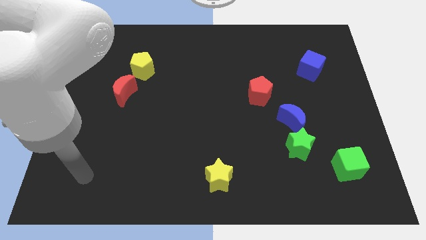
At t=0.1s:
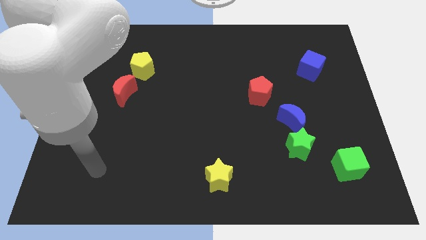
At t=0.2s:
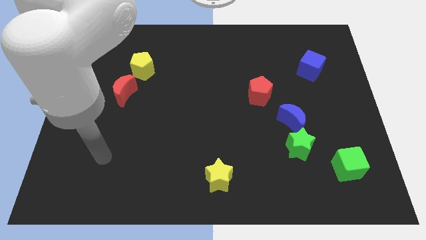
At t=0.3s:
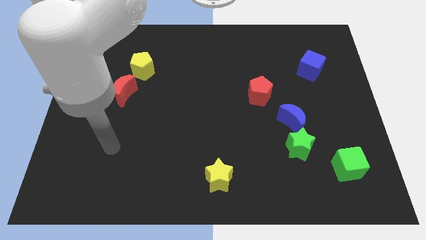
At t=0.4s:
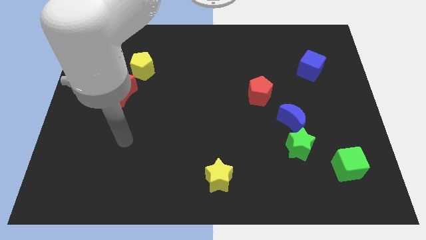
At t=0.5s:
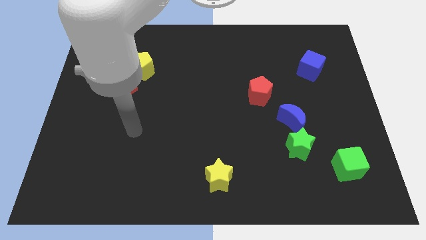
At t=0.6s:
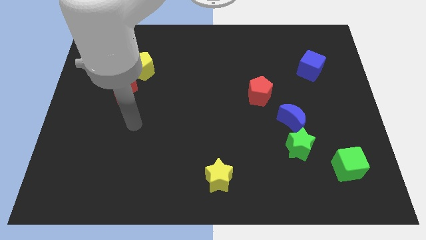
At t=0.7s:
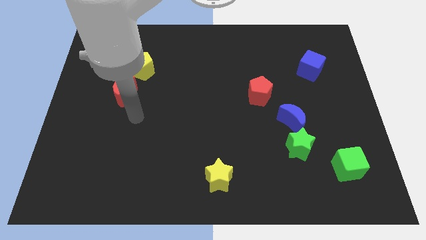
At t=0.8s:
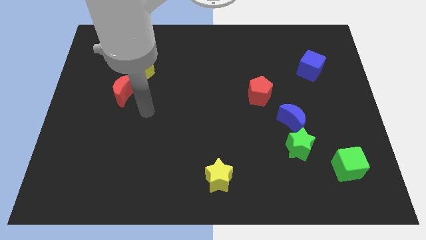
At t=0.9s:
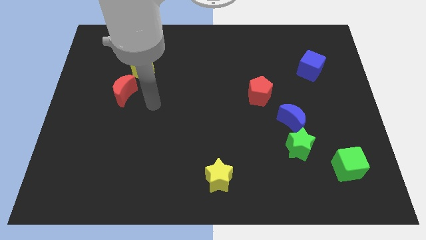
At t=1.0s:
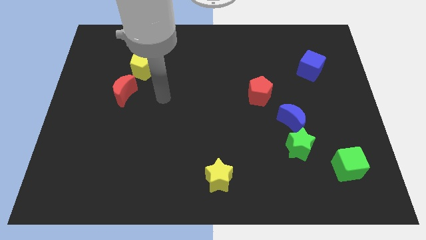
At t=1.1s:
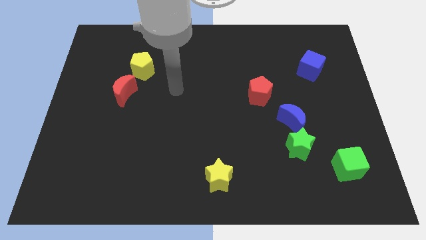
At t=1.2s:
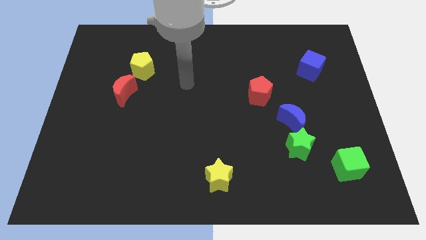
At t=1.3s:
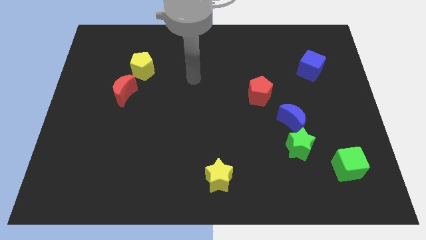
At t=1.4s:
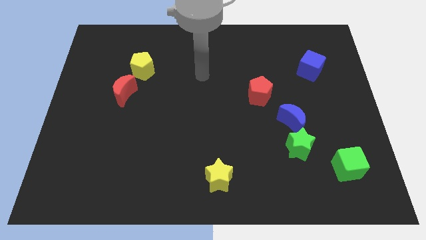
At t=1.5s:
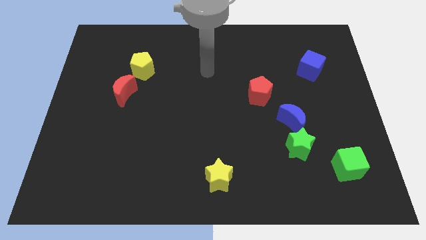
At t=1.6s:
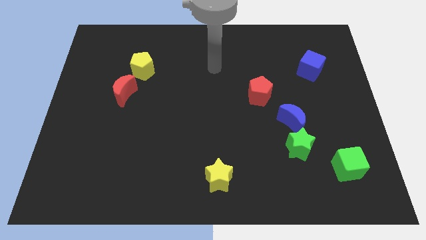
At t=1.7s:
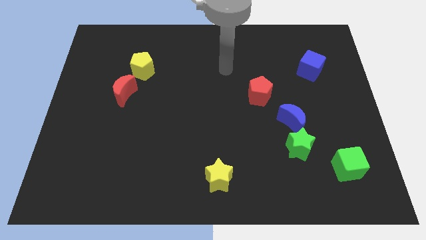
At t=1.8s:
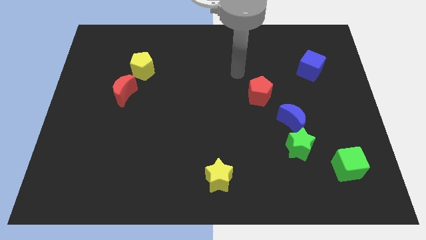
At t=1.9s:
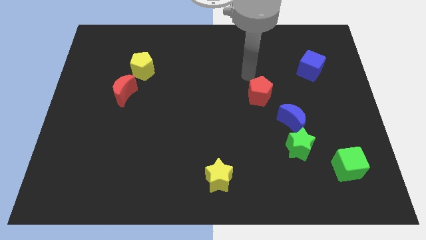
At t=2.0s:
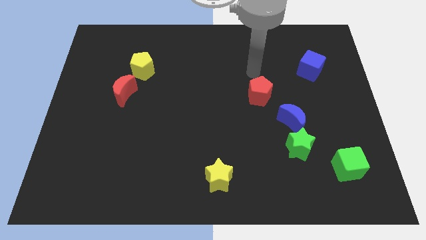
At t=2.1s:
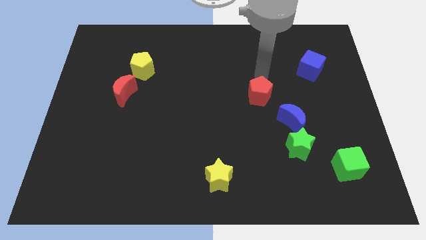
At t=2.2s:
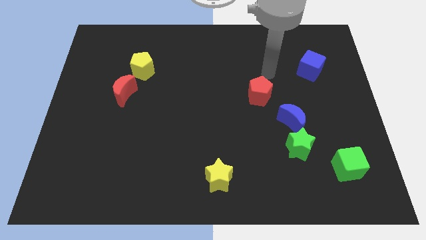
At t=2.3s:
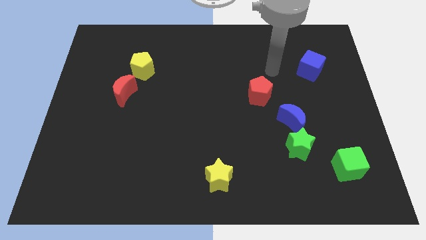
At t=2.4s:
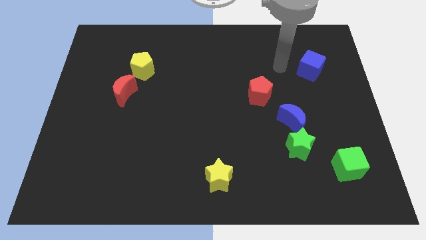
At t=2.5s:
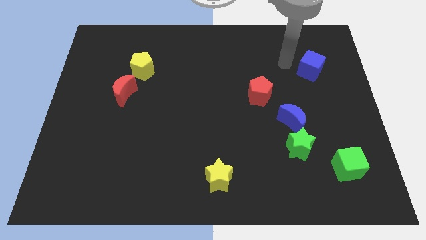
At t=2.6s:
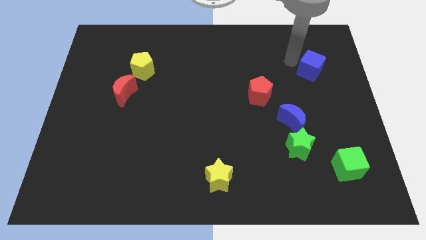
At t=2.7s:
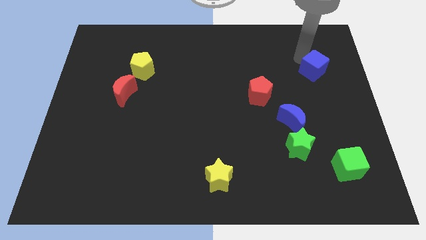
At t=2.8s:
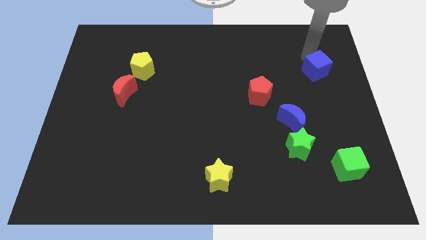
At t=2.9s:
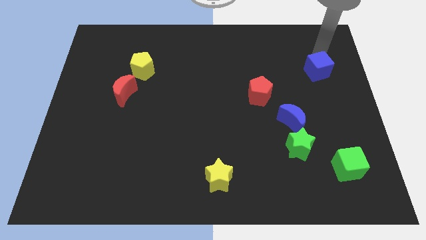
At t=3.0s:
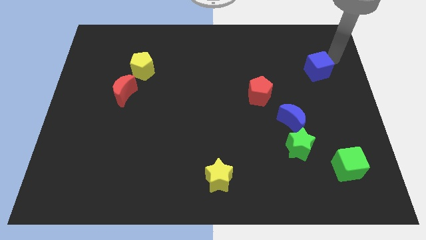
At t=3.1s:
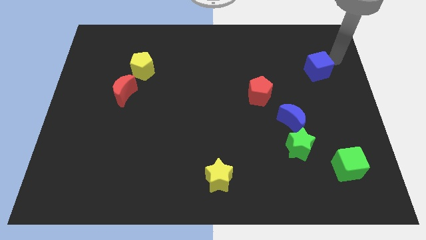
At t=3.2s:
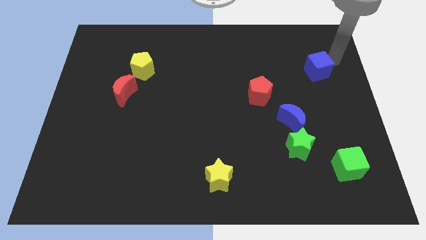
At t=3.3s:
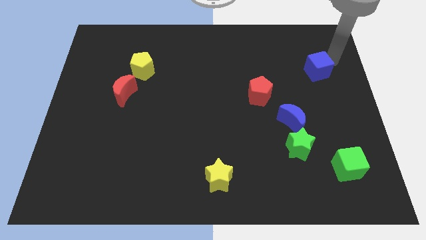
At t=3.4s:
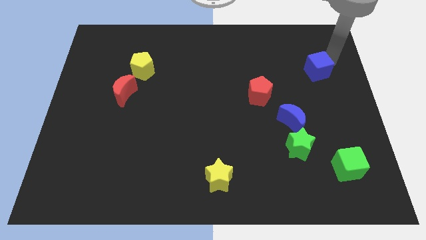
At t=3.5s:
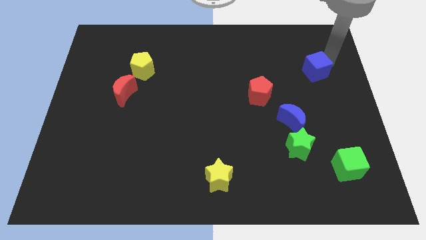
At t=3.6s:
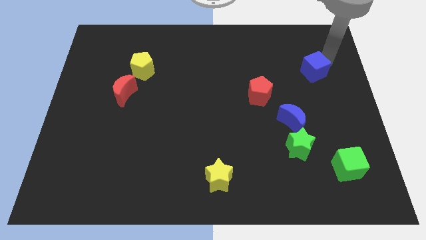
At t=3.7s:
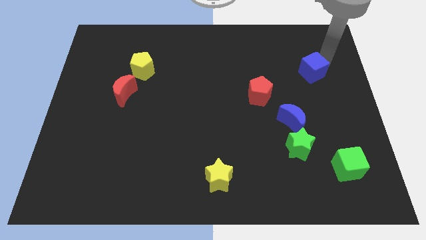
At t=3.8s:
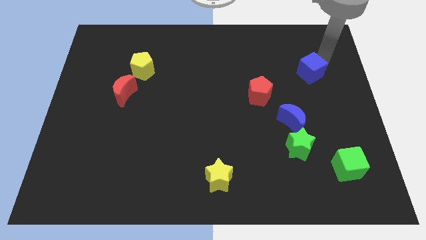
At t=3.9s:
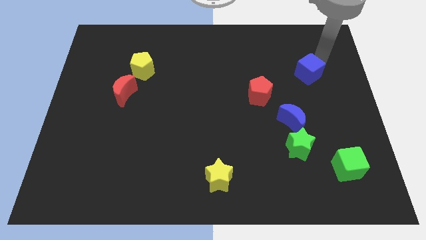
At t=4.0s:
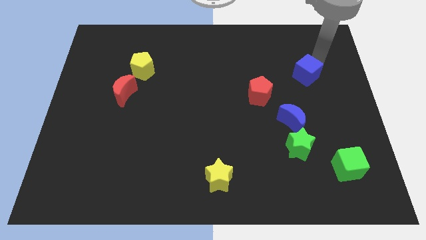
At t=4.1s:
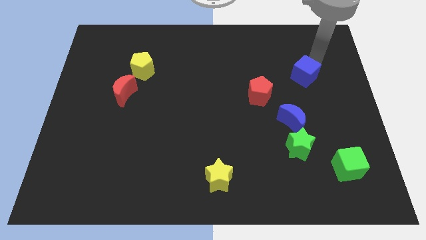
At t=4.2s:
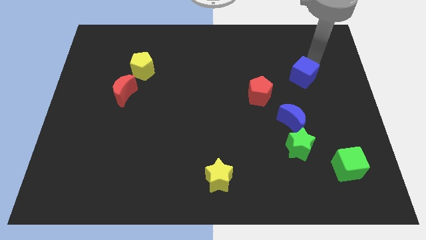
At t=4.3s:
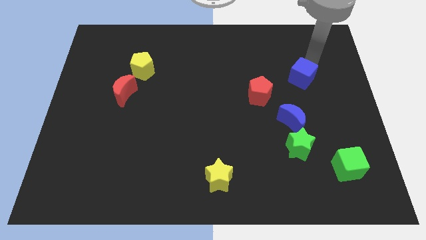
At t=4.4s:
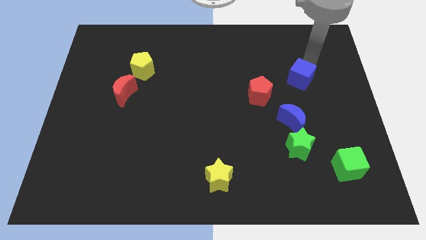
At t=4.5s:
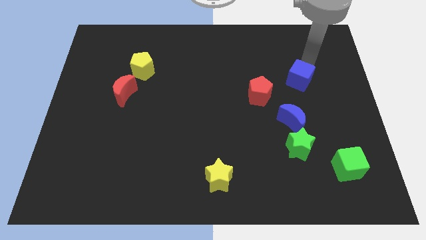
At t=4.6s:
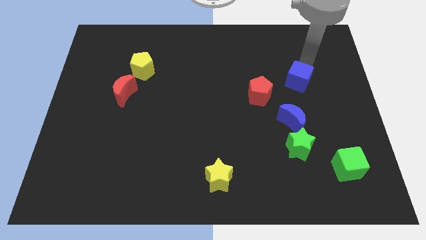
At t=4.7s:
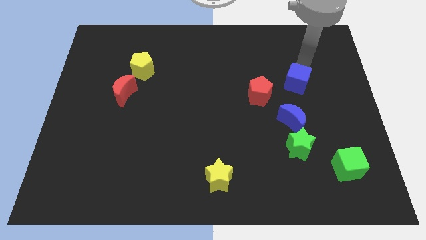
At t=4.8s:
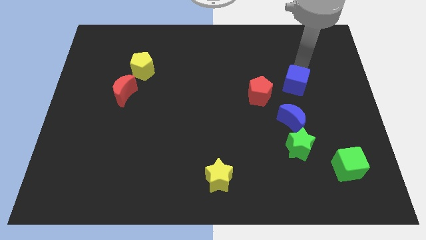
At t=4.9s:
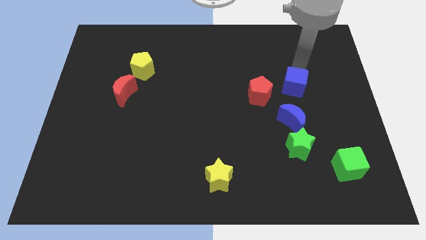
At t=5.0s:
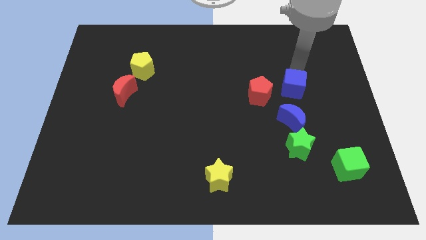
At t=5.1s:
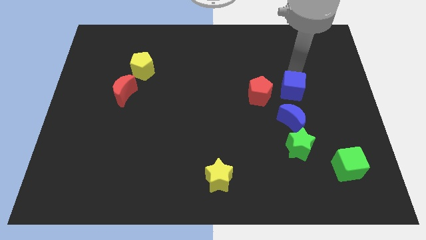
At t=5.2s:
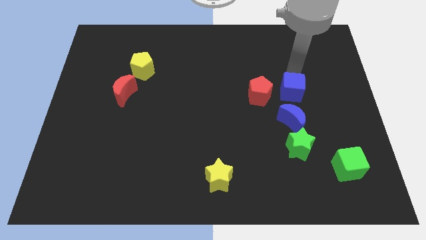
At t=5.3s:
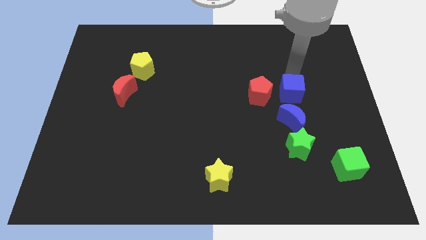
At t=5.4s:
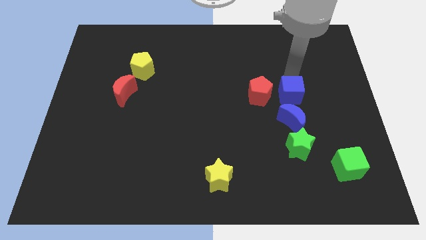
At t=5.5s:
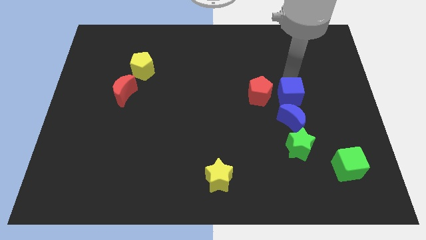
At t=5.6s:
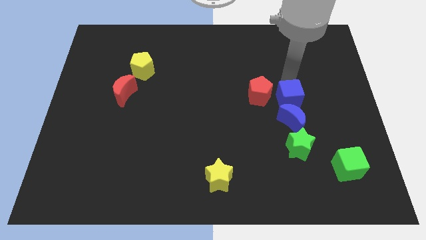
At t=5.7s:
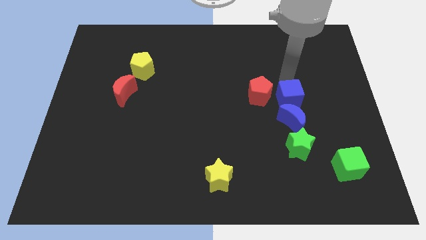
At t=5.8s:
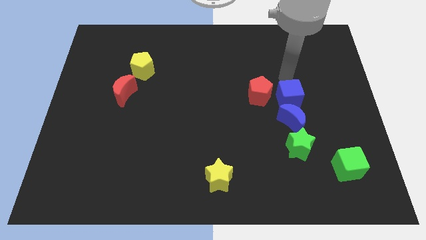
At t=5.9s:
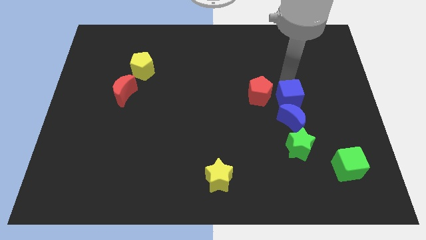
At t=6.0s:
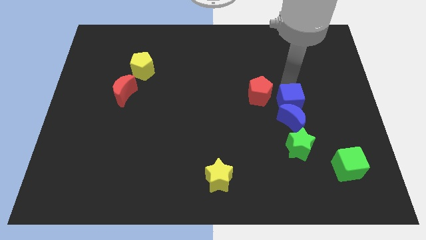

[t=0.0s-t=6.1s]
push the blue cube next to the blue moon
